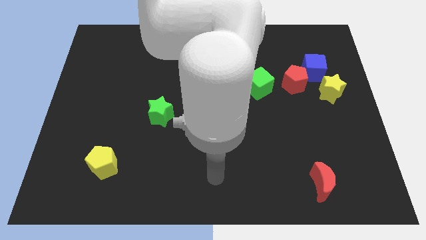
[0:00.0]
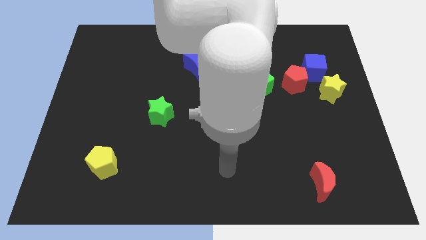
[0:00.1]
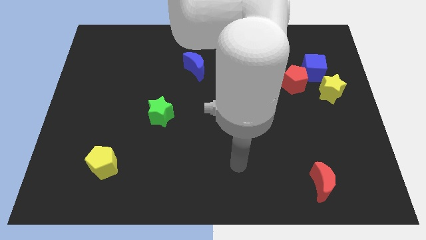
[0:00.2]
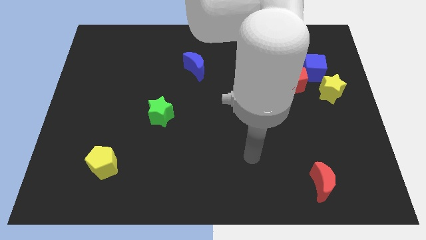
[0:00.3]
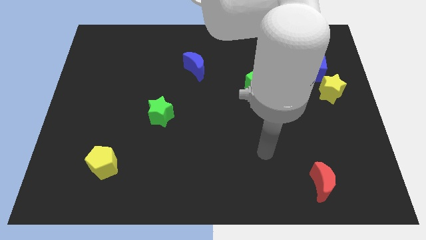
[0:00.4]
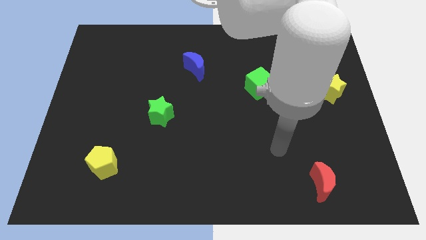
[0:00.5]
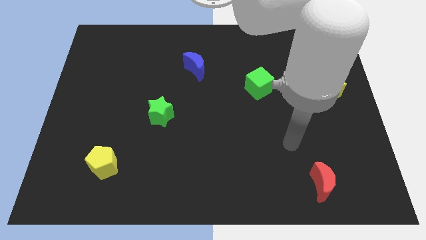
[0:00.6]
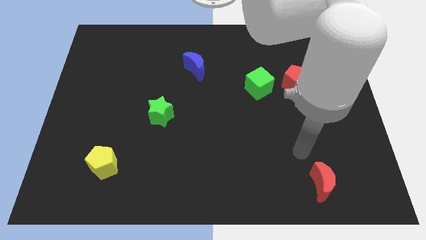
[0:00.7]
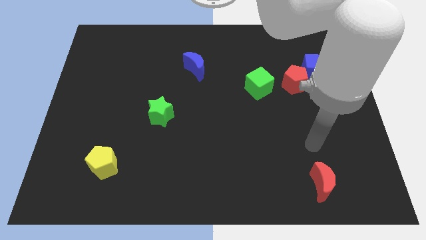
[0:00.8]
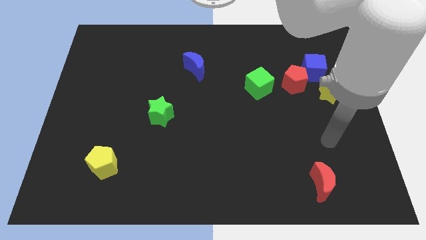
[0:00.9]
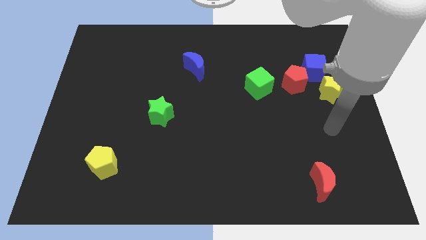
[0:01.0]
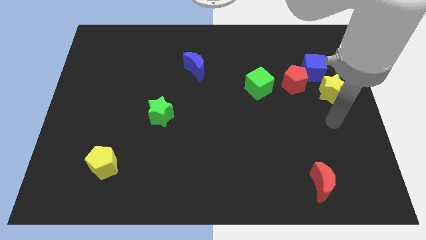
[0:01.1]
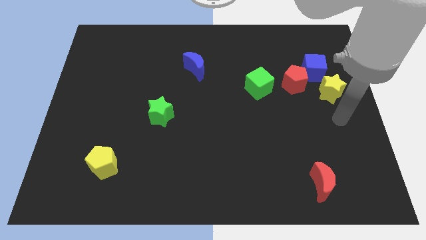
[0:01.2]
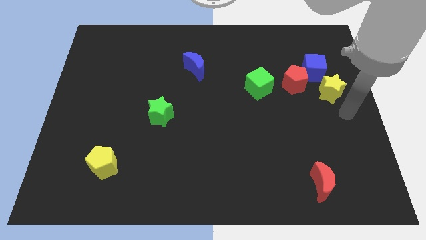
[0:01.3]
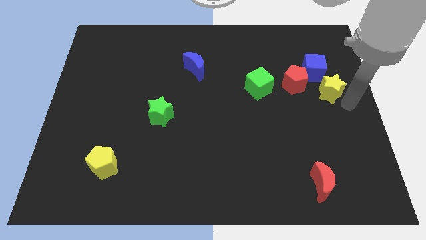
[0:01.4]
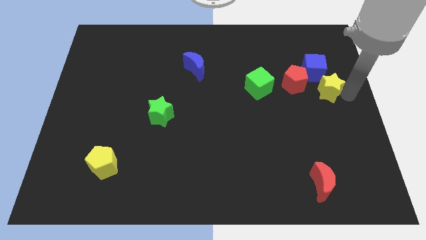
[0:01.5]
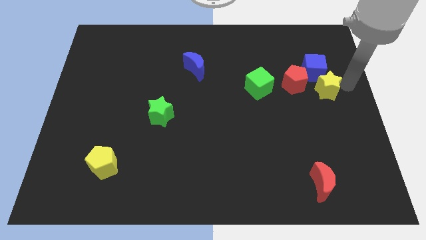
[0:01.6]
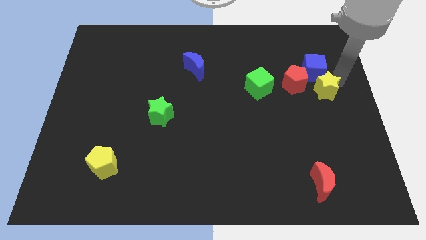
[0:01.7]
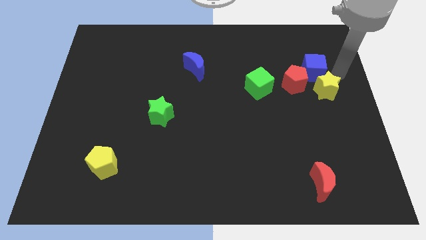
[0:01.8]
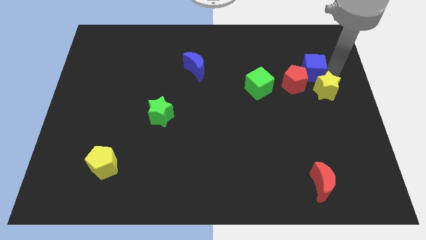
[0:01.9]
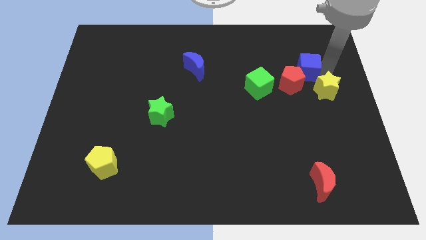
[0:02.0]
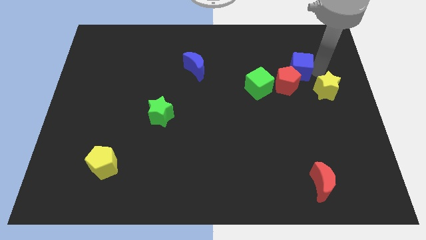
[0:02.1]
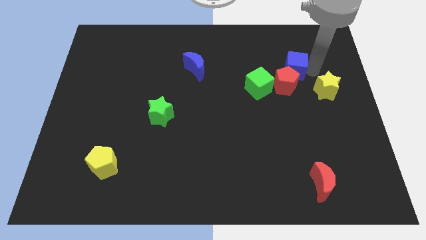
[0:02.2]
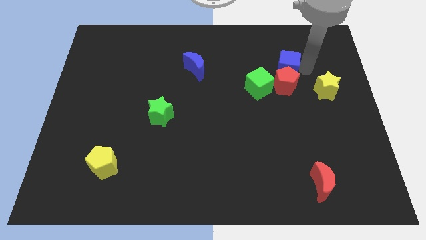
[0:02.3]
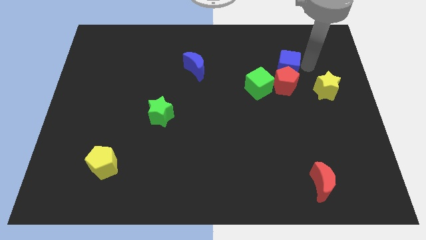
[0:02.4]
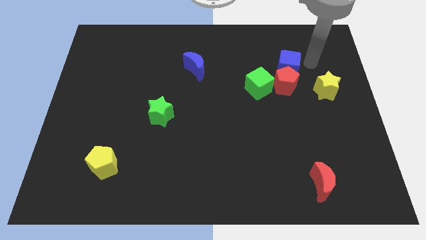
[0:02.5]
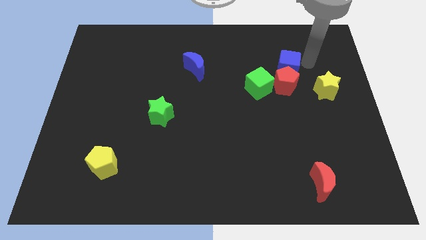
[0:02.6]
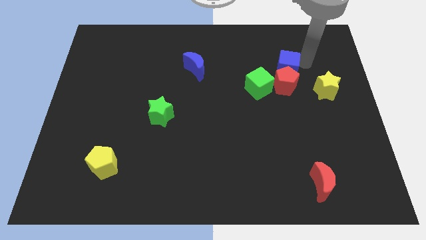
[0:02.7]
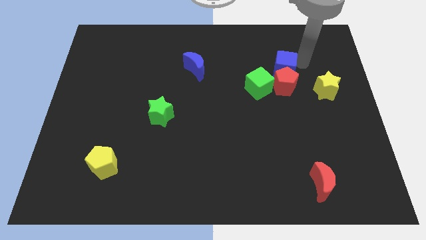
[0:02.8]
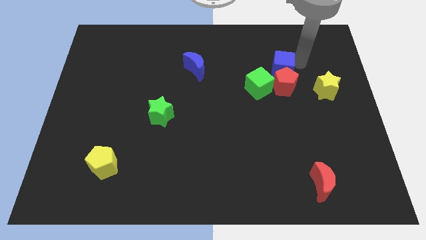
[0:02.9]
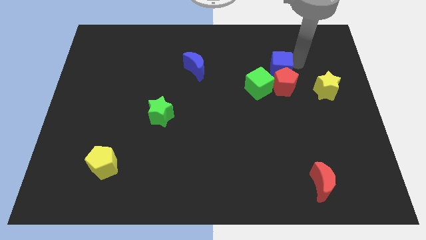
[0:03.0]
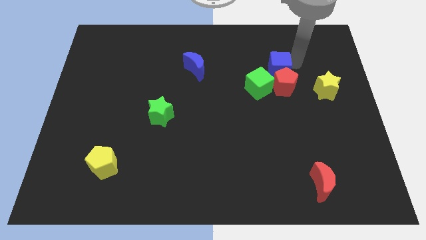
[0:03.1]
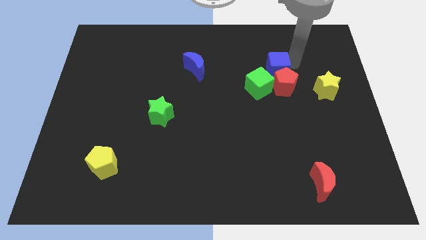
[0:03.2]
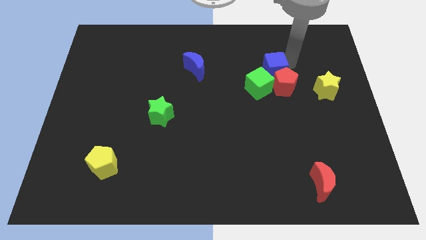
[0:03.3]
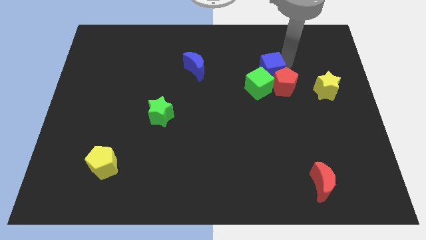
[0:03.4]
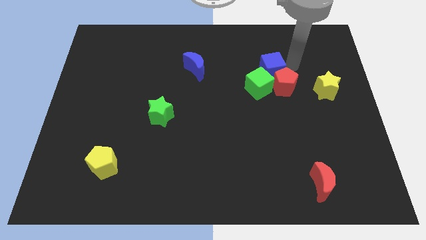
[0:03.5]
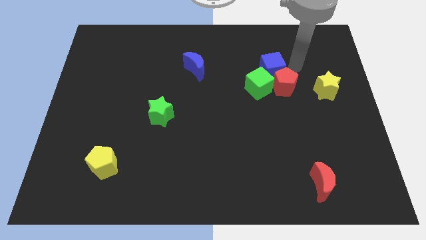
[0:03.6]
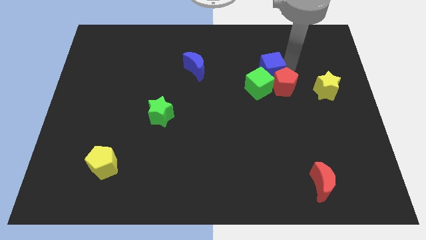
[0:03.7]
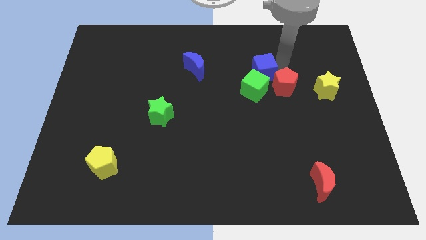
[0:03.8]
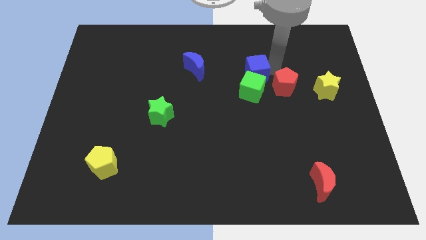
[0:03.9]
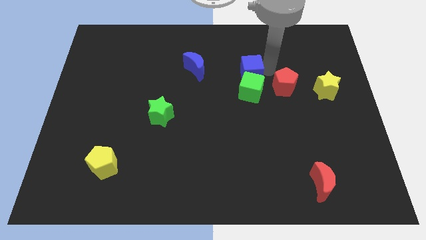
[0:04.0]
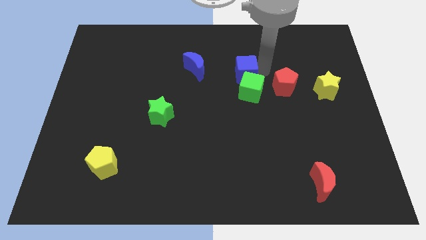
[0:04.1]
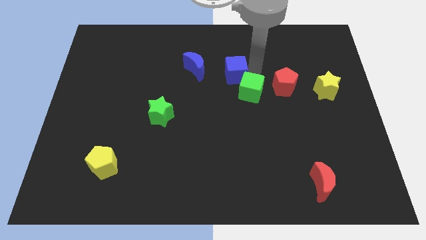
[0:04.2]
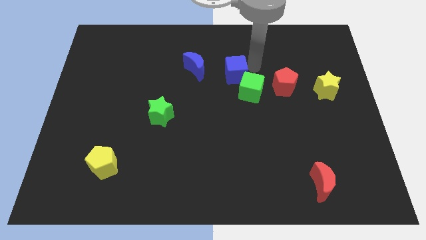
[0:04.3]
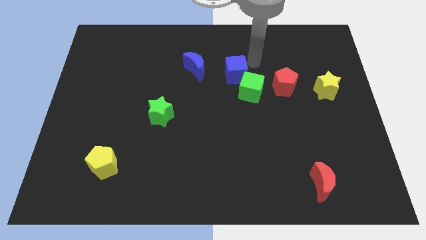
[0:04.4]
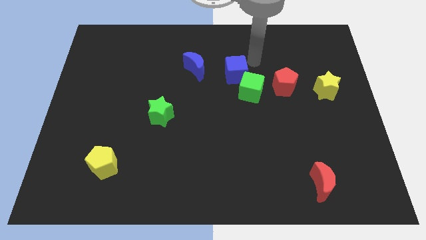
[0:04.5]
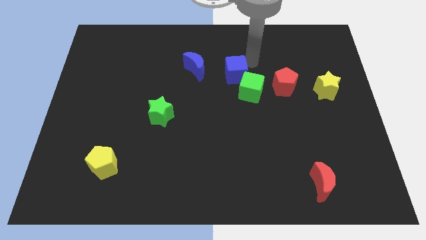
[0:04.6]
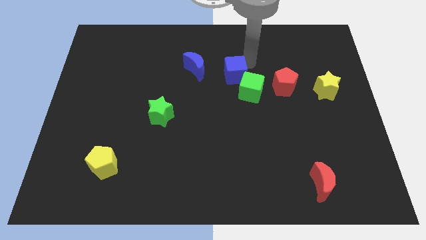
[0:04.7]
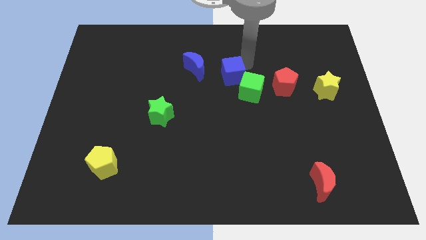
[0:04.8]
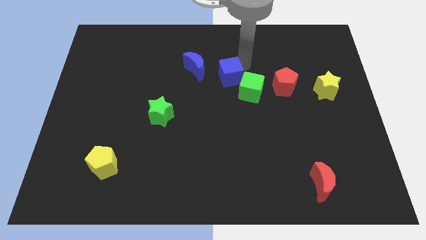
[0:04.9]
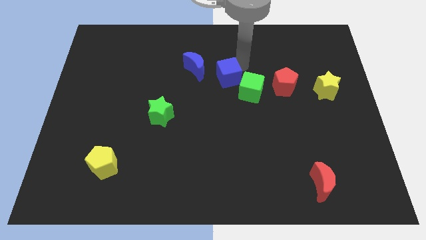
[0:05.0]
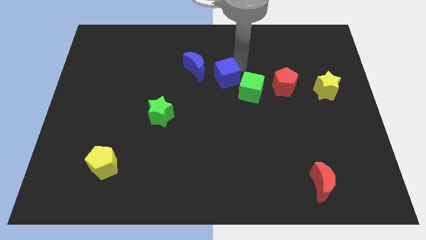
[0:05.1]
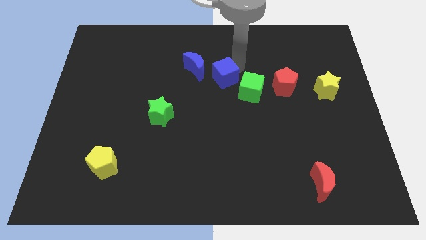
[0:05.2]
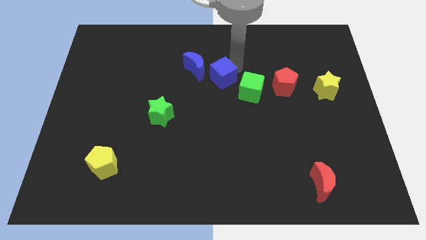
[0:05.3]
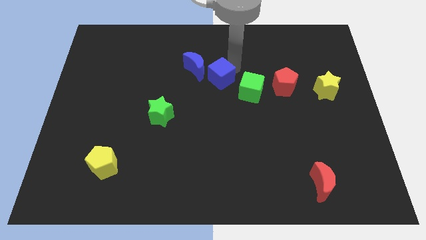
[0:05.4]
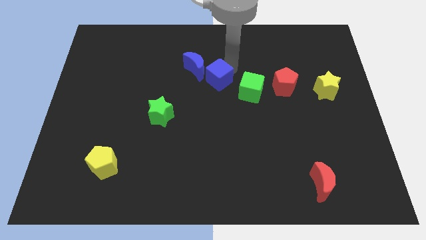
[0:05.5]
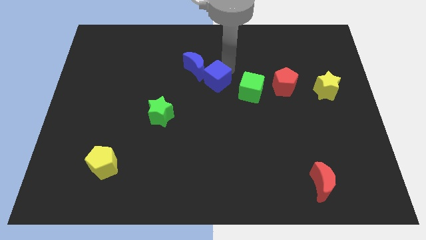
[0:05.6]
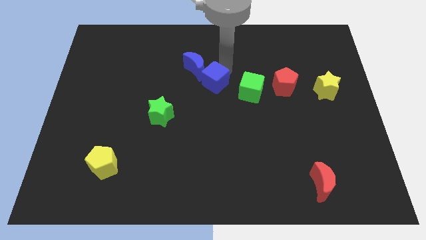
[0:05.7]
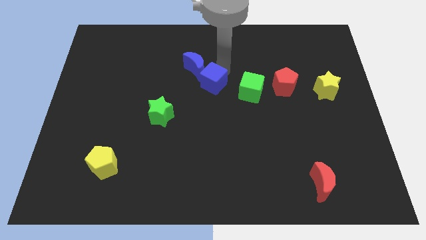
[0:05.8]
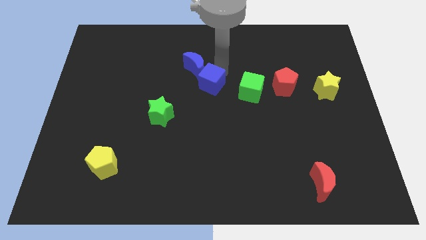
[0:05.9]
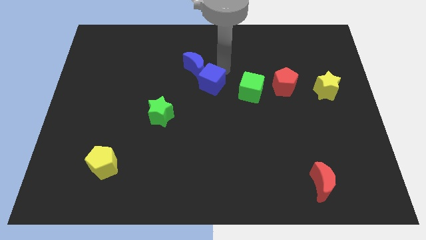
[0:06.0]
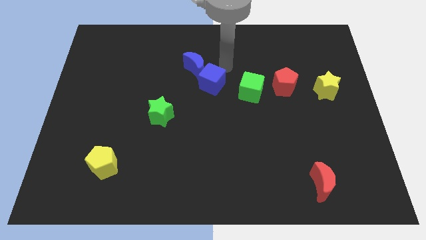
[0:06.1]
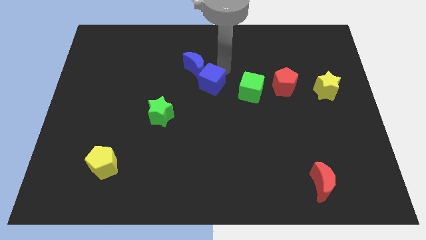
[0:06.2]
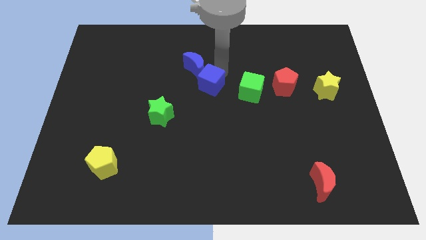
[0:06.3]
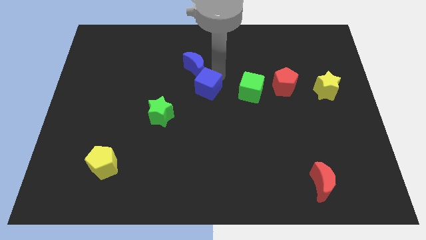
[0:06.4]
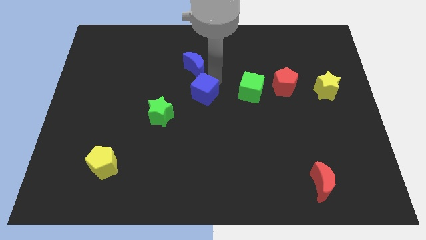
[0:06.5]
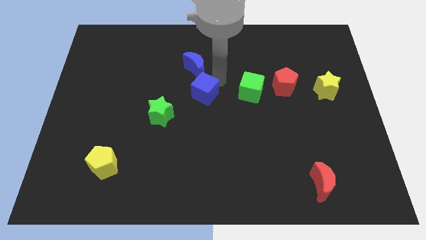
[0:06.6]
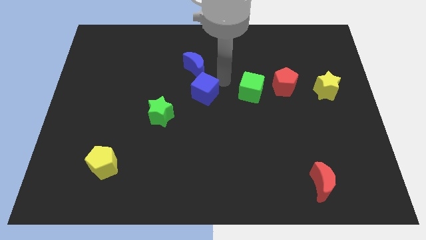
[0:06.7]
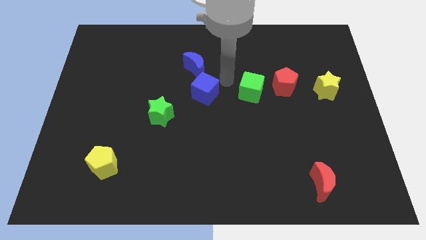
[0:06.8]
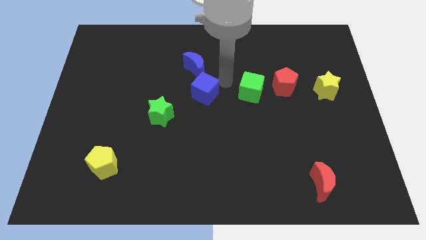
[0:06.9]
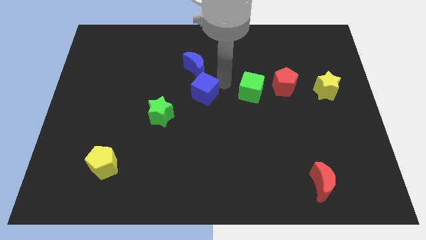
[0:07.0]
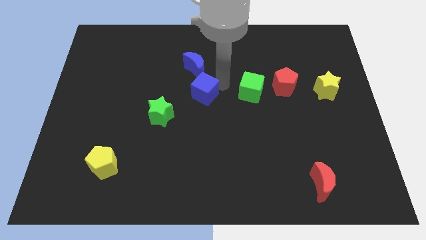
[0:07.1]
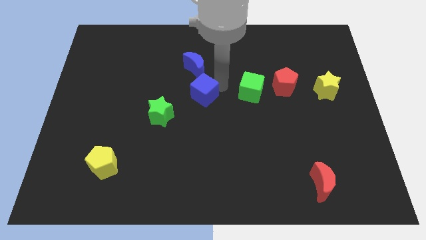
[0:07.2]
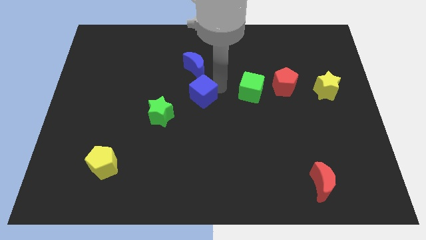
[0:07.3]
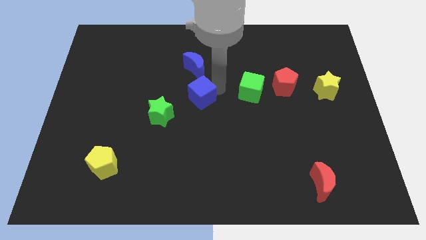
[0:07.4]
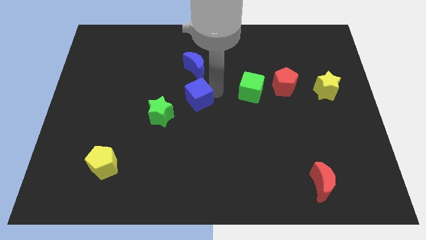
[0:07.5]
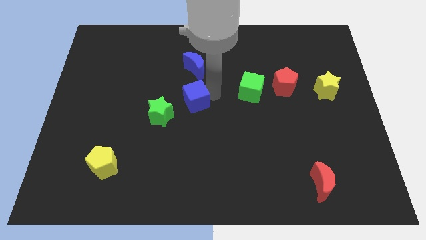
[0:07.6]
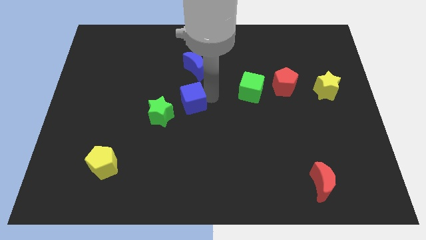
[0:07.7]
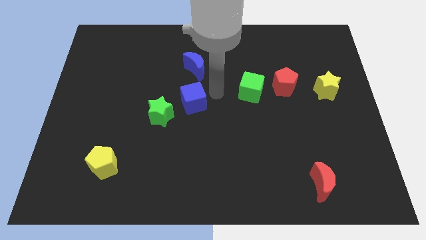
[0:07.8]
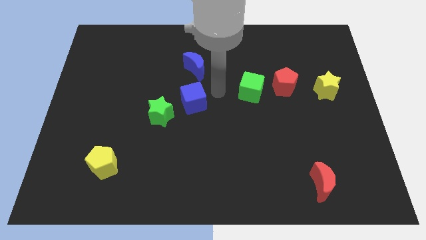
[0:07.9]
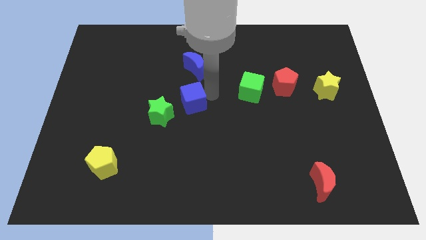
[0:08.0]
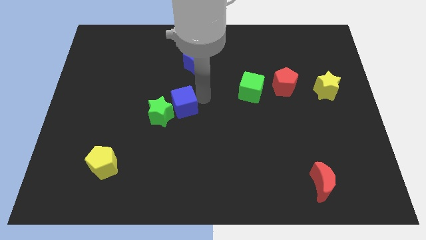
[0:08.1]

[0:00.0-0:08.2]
push the blue cube close to the green star
